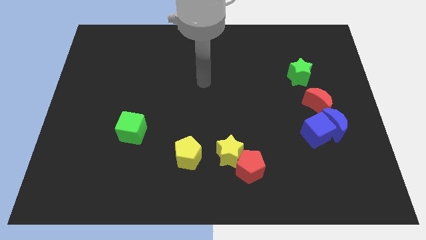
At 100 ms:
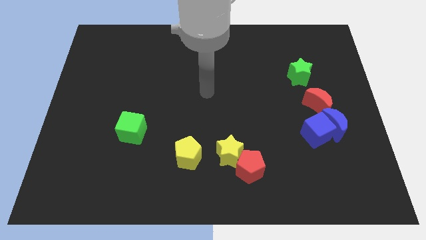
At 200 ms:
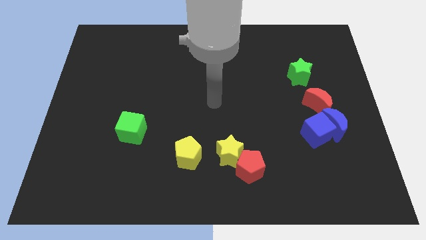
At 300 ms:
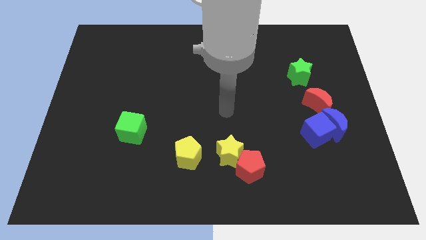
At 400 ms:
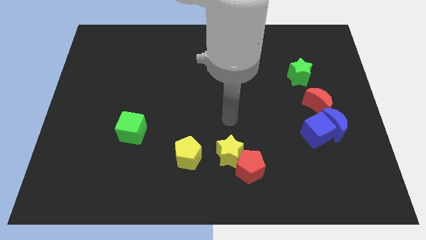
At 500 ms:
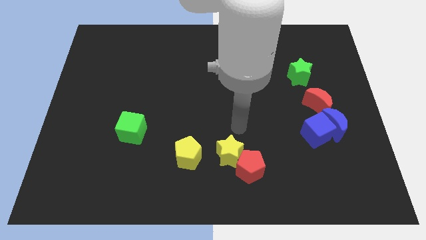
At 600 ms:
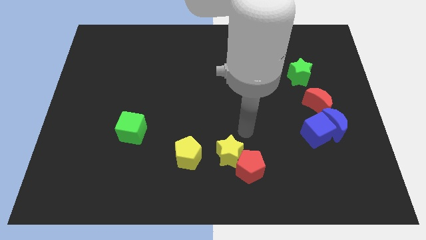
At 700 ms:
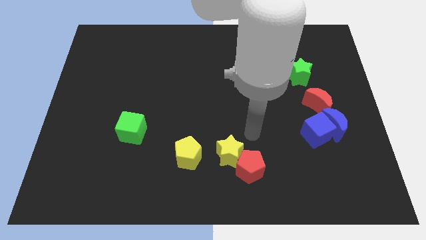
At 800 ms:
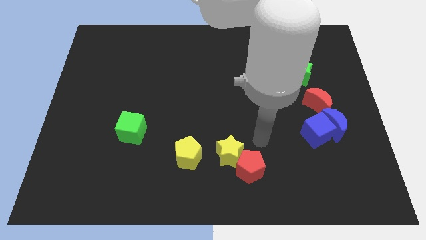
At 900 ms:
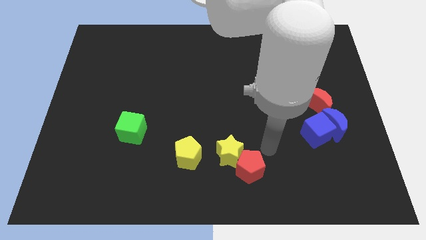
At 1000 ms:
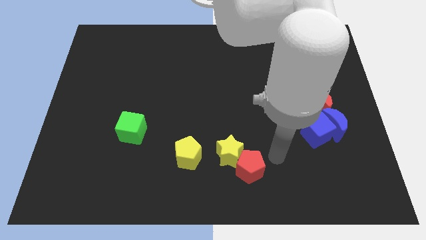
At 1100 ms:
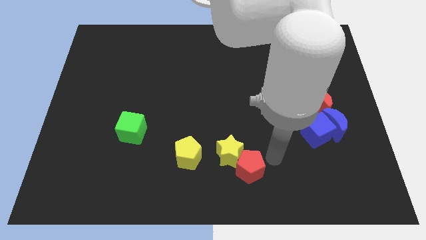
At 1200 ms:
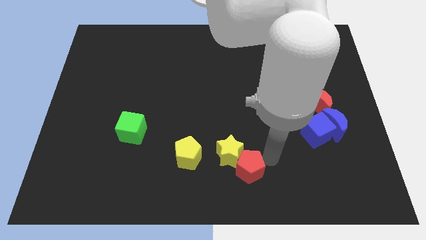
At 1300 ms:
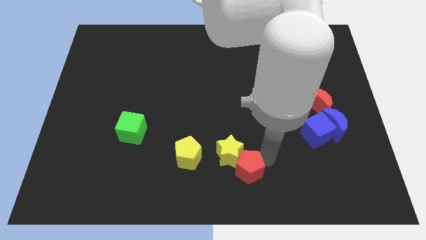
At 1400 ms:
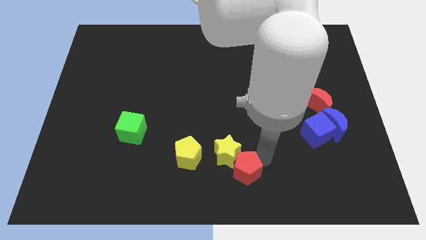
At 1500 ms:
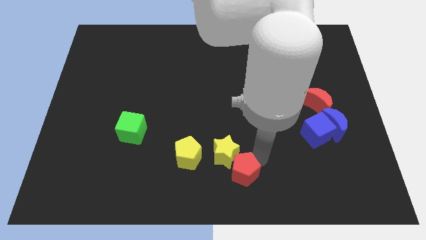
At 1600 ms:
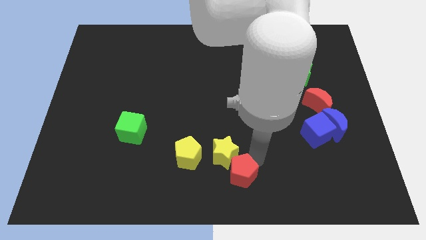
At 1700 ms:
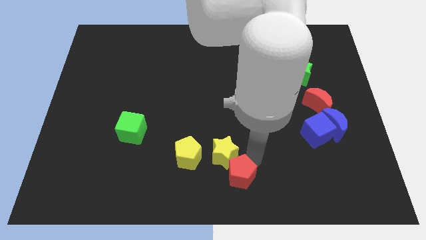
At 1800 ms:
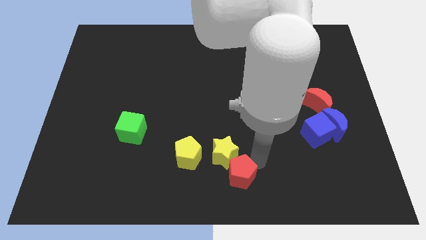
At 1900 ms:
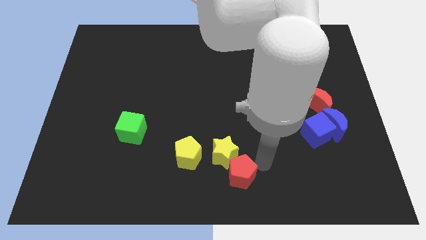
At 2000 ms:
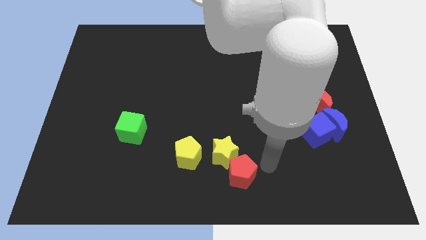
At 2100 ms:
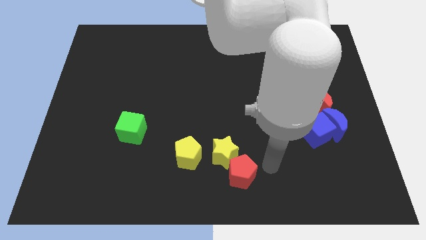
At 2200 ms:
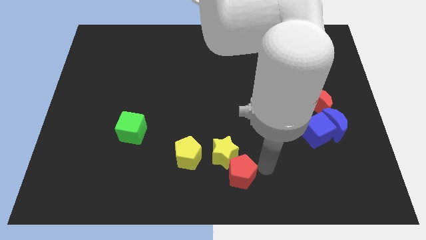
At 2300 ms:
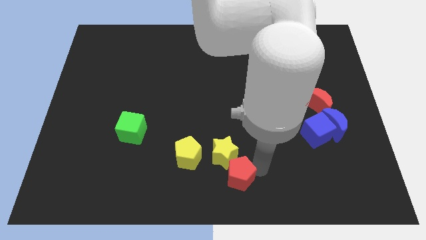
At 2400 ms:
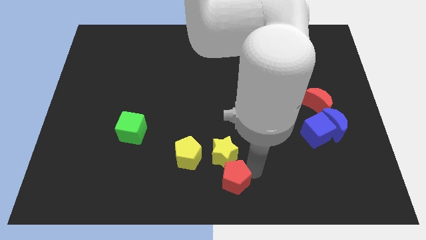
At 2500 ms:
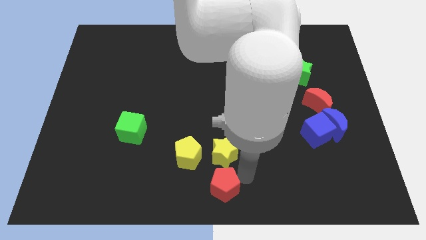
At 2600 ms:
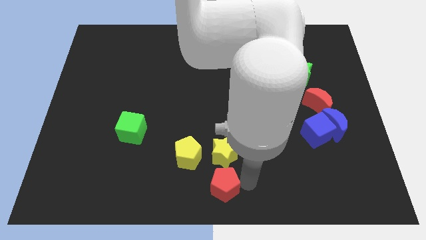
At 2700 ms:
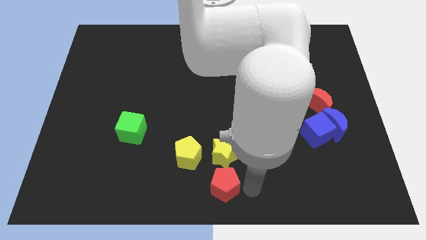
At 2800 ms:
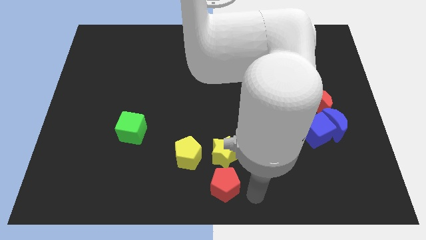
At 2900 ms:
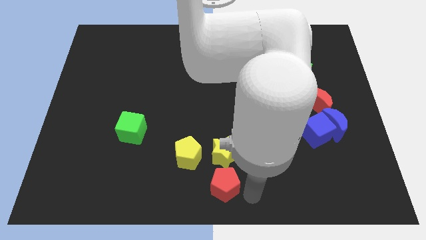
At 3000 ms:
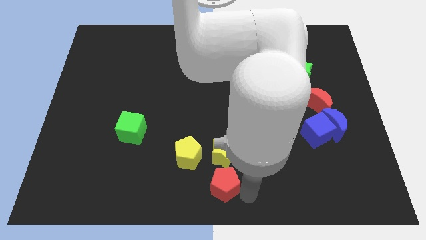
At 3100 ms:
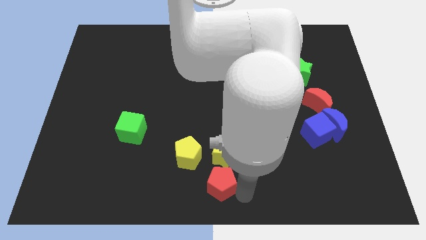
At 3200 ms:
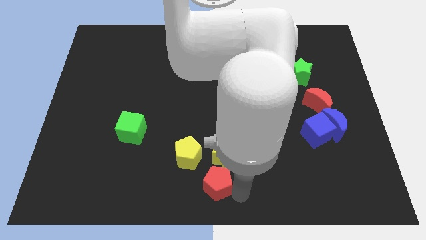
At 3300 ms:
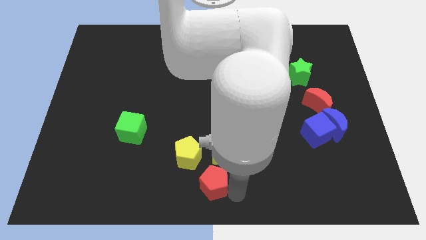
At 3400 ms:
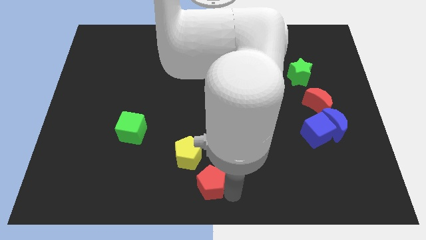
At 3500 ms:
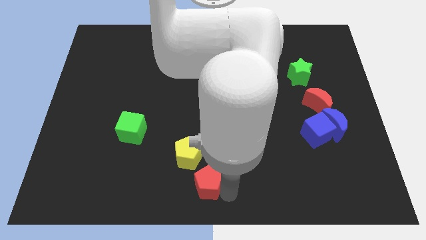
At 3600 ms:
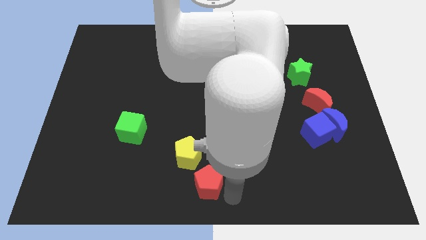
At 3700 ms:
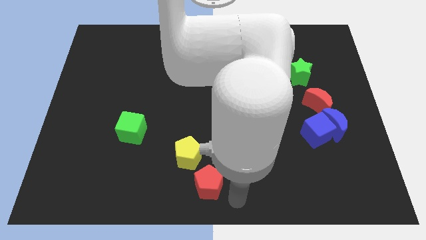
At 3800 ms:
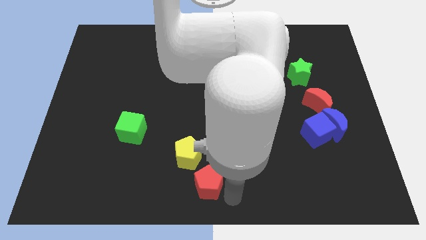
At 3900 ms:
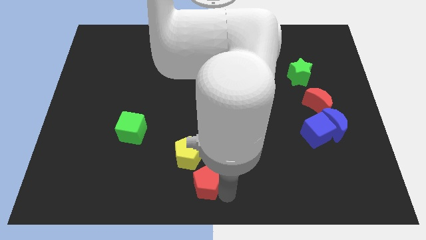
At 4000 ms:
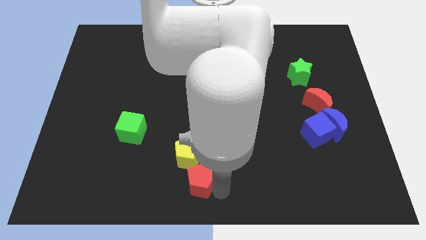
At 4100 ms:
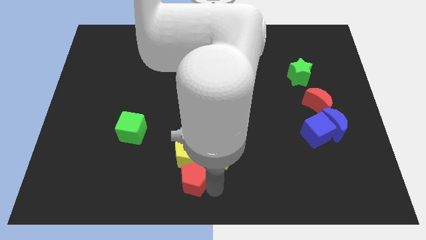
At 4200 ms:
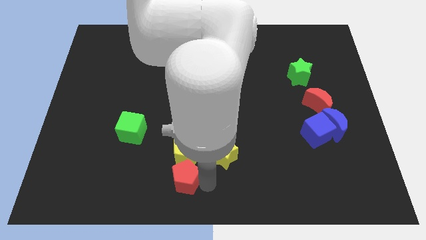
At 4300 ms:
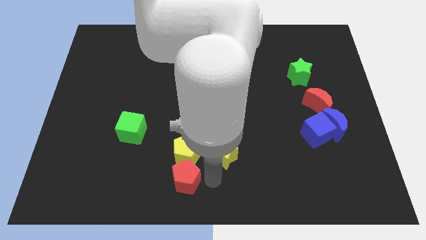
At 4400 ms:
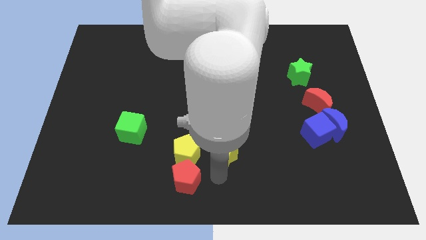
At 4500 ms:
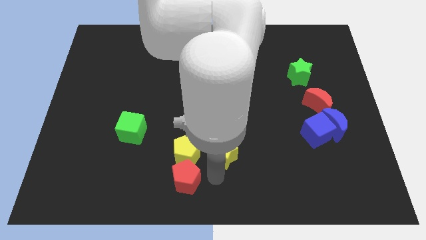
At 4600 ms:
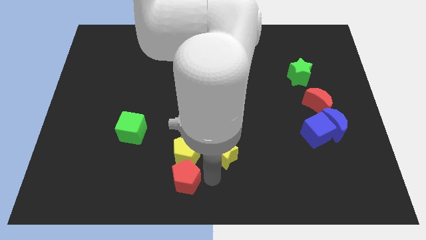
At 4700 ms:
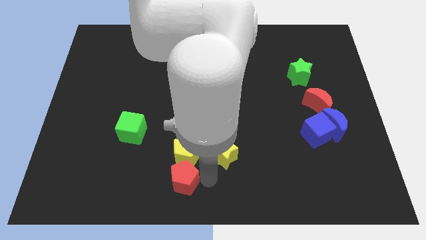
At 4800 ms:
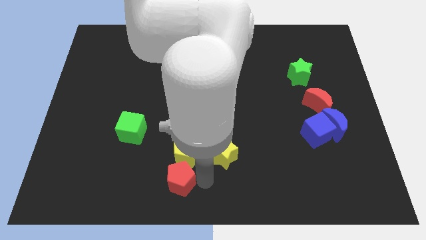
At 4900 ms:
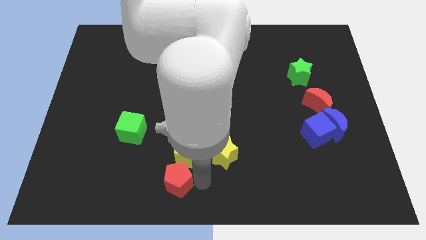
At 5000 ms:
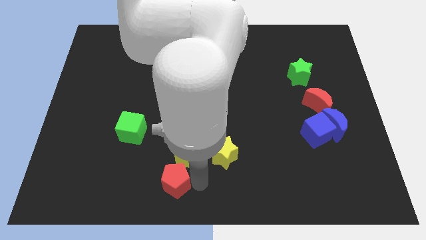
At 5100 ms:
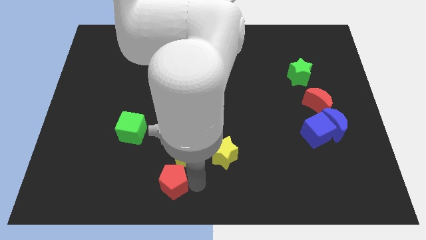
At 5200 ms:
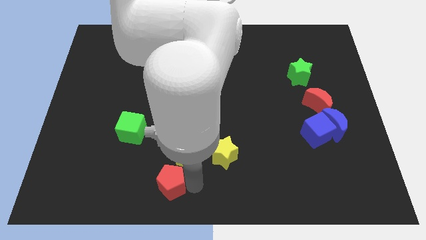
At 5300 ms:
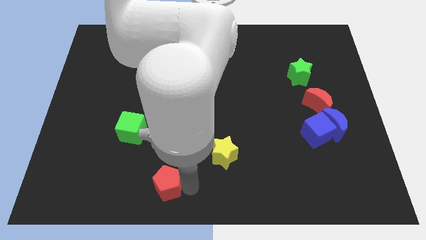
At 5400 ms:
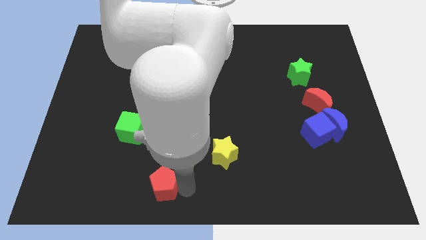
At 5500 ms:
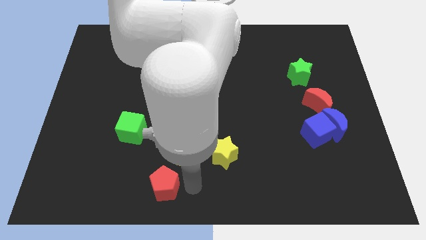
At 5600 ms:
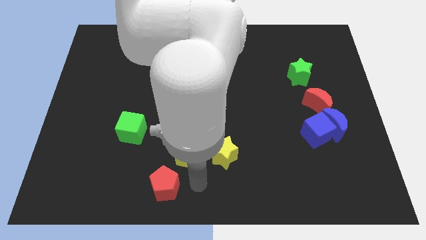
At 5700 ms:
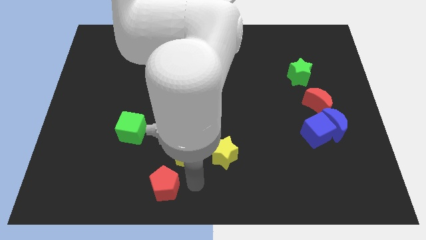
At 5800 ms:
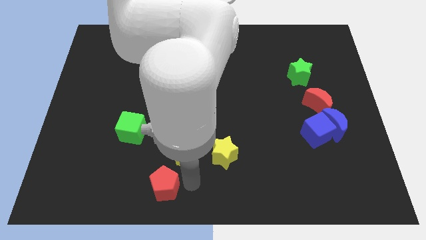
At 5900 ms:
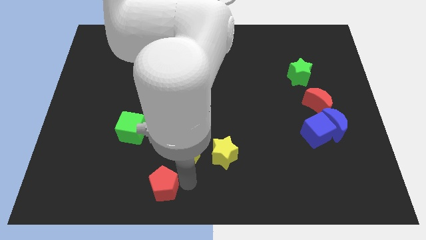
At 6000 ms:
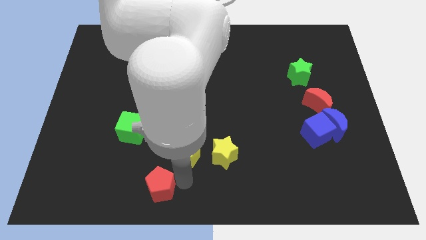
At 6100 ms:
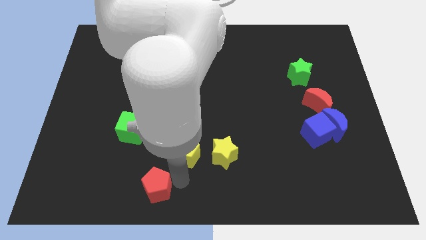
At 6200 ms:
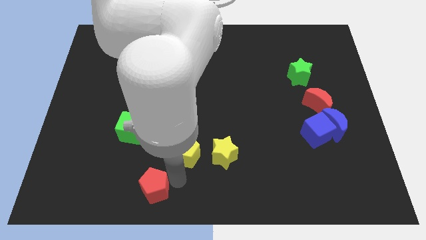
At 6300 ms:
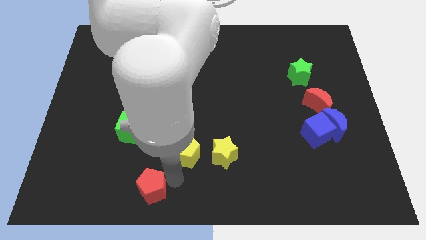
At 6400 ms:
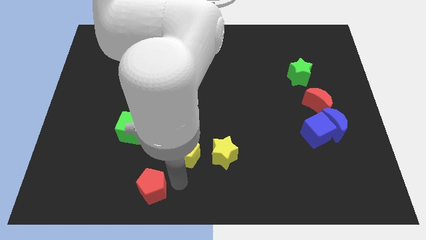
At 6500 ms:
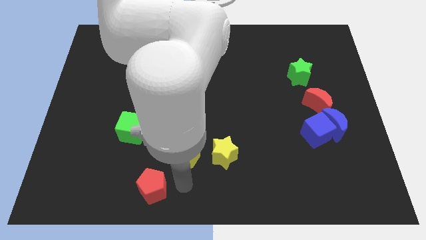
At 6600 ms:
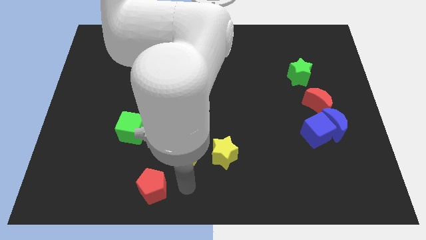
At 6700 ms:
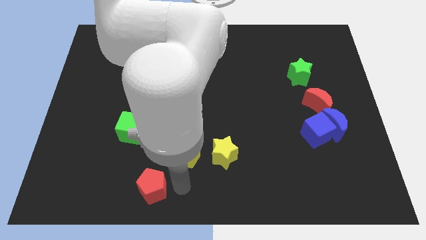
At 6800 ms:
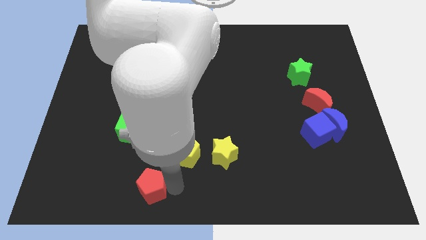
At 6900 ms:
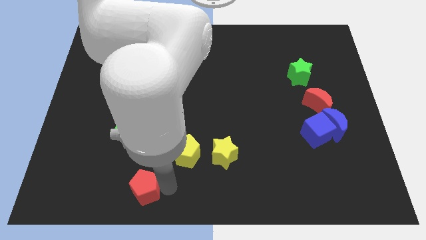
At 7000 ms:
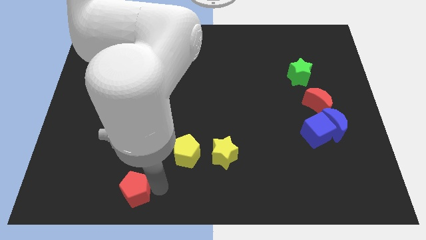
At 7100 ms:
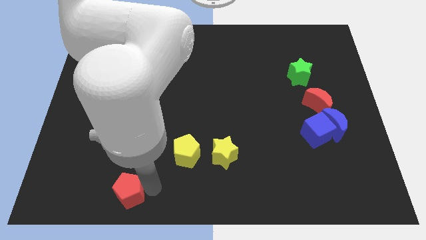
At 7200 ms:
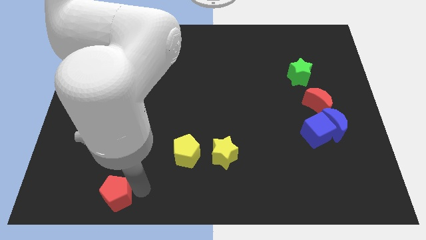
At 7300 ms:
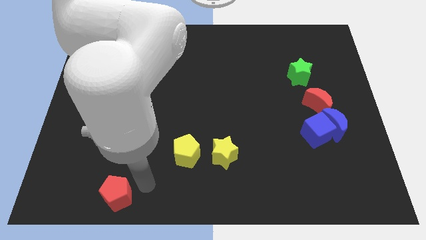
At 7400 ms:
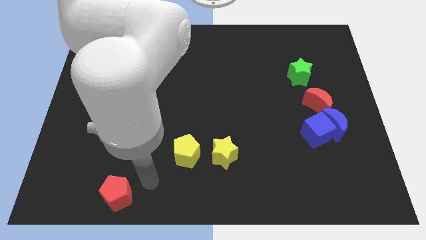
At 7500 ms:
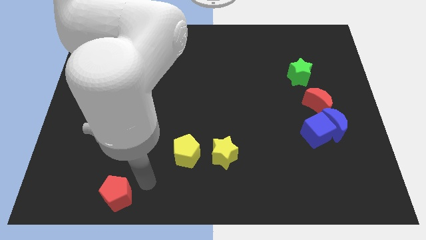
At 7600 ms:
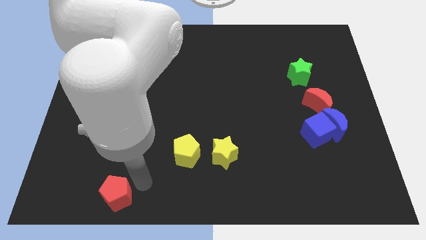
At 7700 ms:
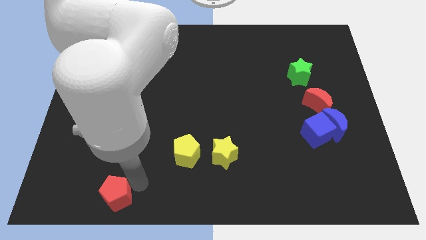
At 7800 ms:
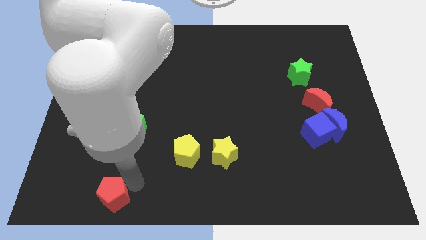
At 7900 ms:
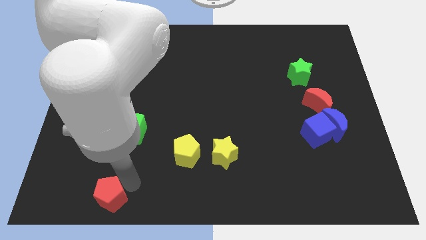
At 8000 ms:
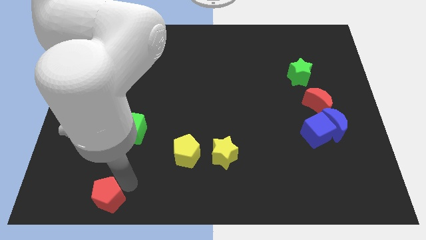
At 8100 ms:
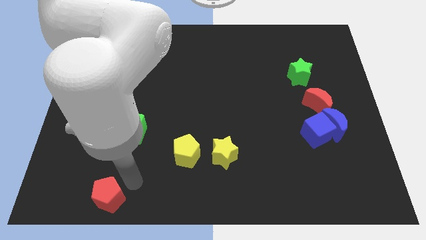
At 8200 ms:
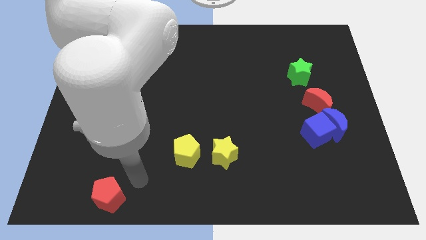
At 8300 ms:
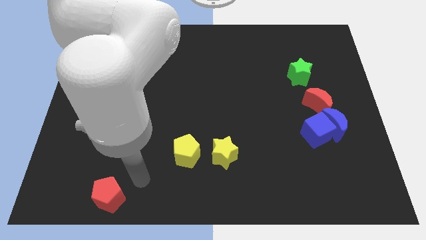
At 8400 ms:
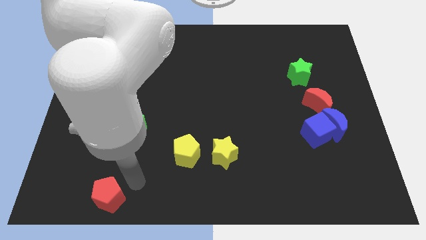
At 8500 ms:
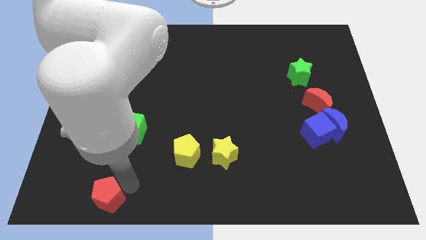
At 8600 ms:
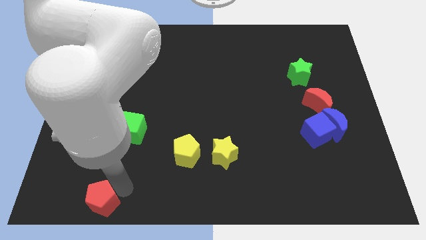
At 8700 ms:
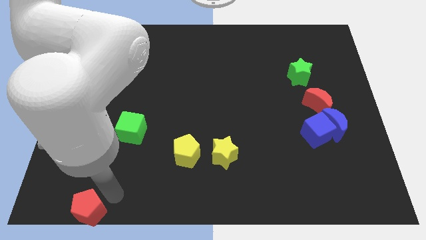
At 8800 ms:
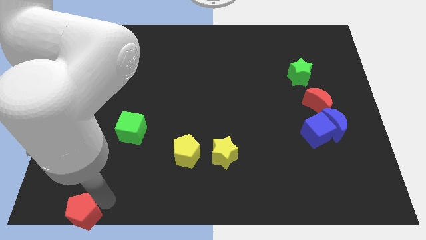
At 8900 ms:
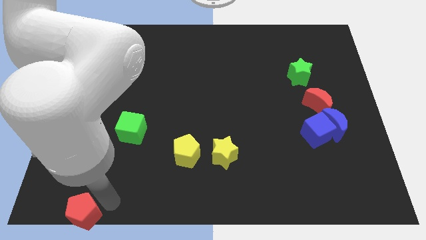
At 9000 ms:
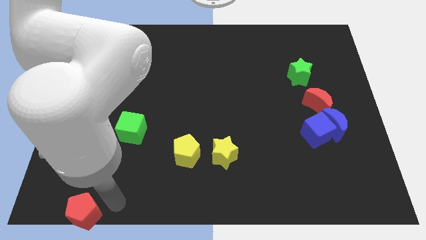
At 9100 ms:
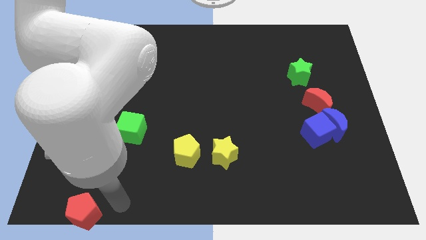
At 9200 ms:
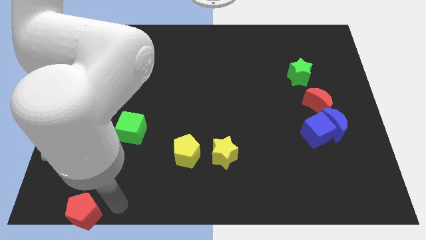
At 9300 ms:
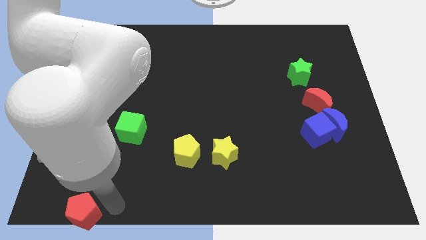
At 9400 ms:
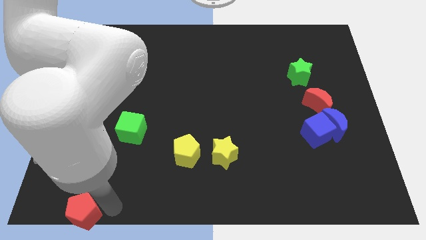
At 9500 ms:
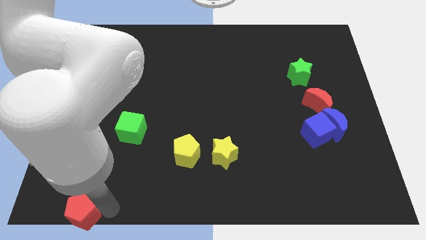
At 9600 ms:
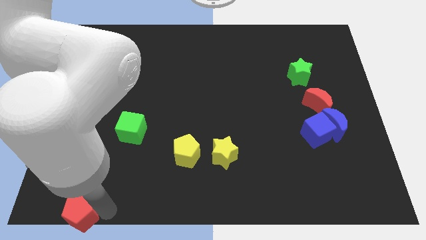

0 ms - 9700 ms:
move the red pentagon to the lower left corner
